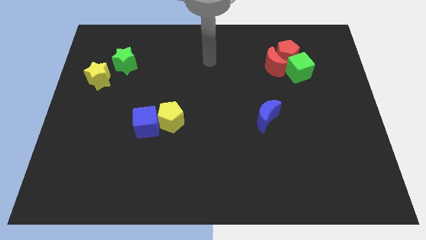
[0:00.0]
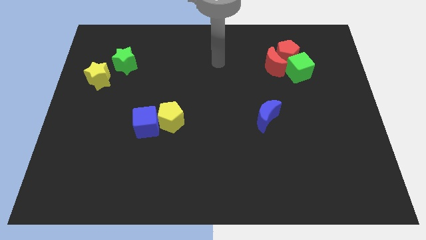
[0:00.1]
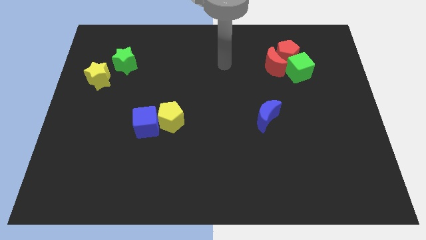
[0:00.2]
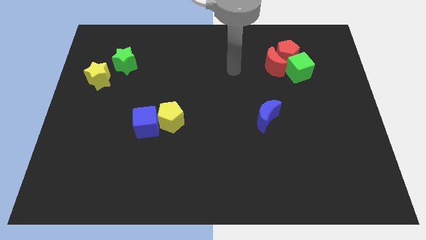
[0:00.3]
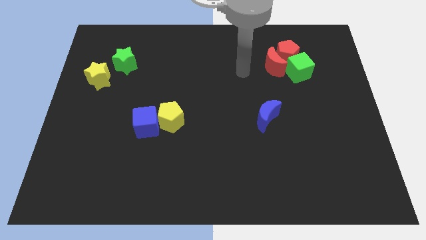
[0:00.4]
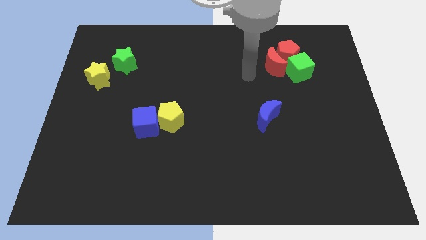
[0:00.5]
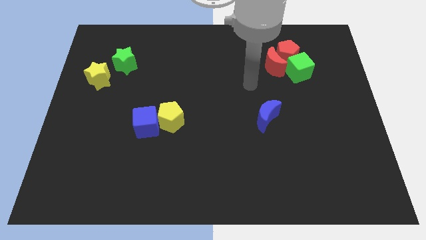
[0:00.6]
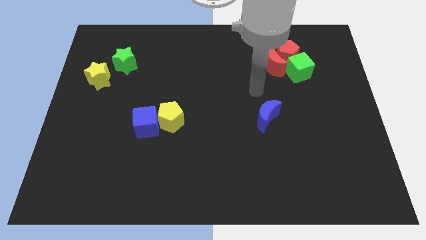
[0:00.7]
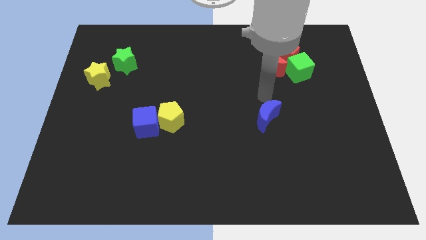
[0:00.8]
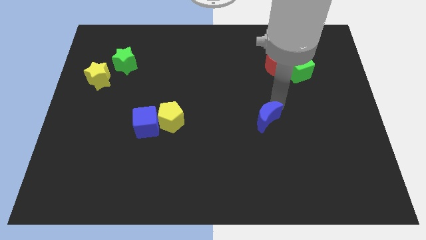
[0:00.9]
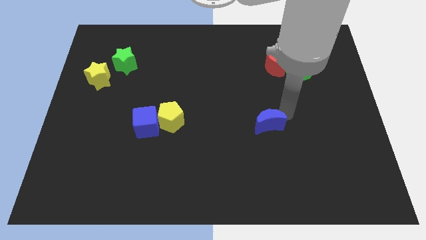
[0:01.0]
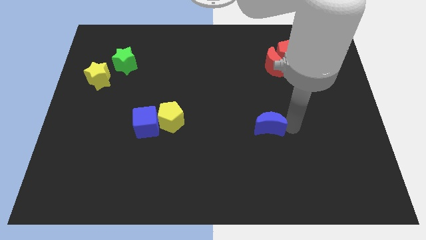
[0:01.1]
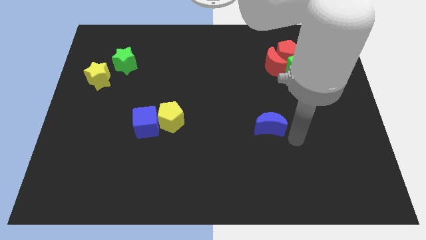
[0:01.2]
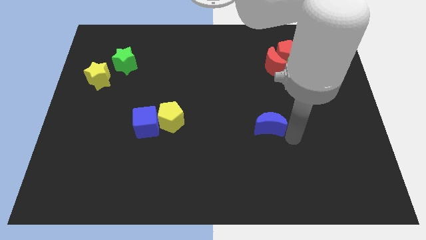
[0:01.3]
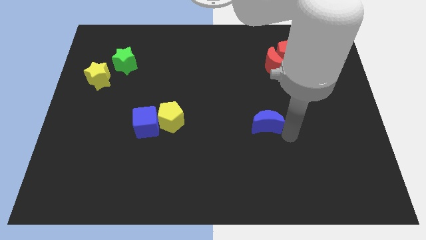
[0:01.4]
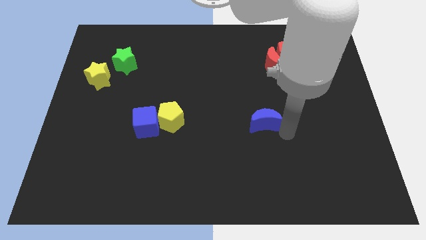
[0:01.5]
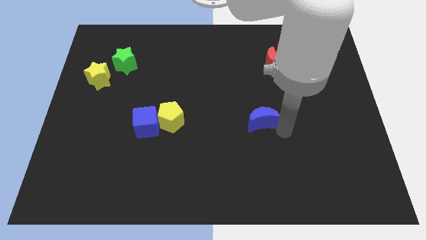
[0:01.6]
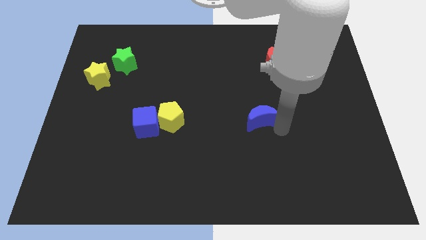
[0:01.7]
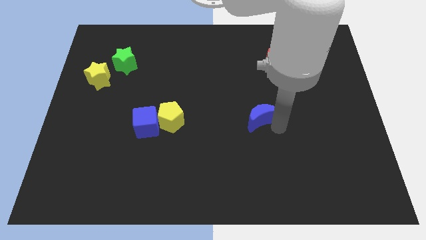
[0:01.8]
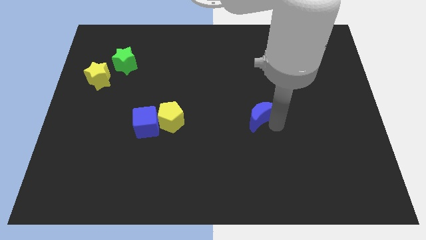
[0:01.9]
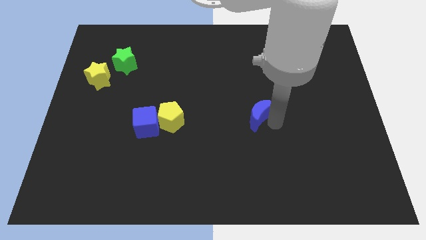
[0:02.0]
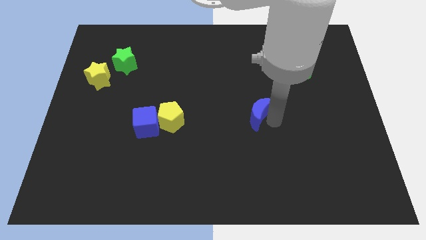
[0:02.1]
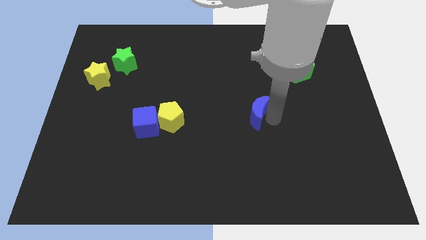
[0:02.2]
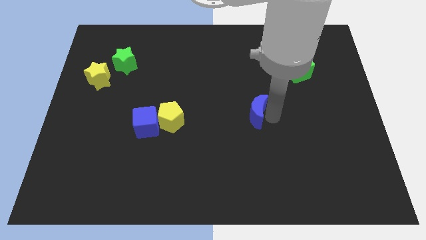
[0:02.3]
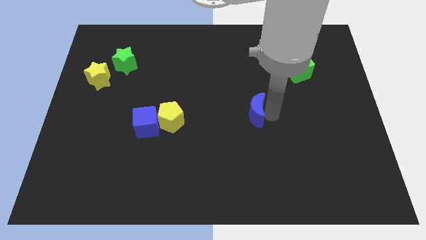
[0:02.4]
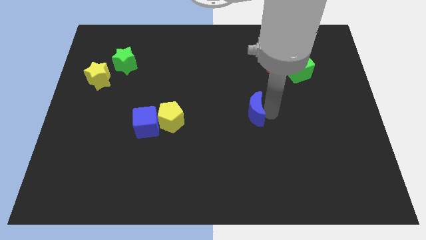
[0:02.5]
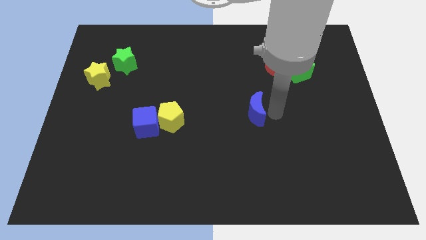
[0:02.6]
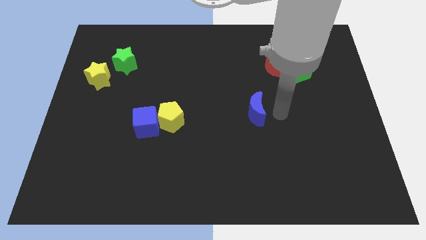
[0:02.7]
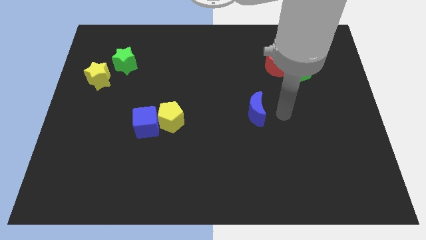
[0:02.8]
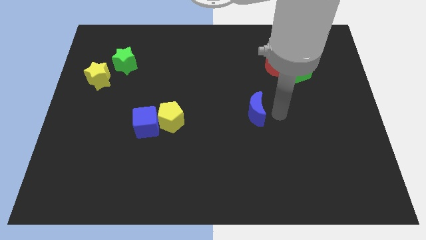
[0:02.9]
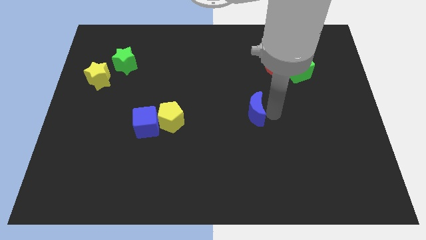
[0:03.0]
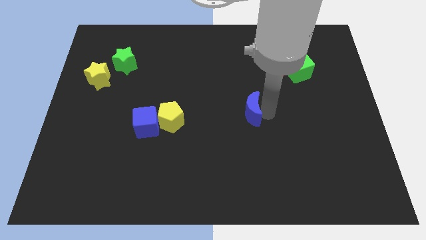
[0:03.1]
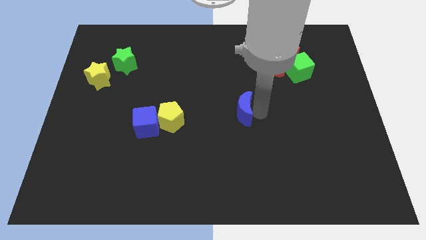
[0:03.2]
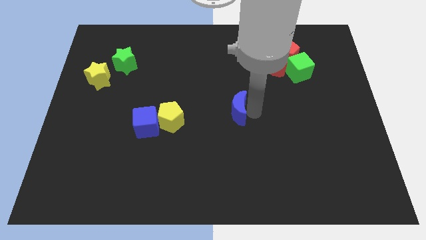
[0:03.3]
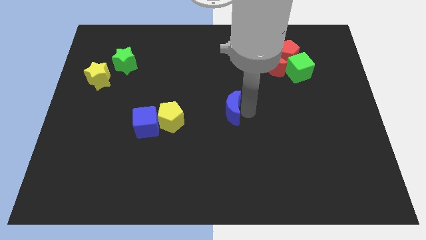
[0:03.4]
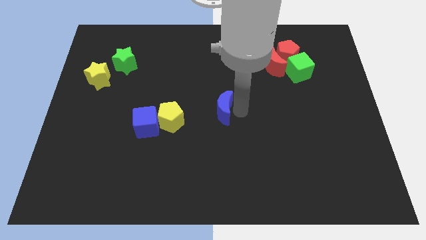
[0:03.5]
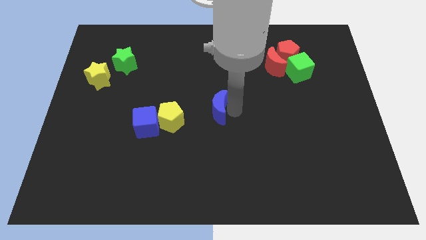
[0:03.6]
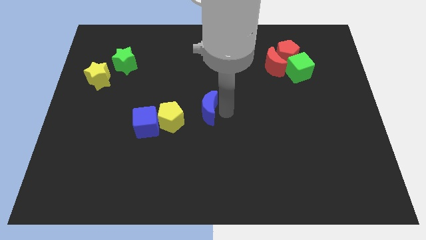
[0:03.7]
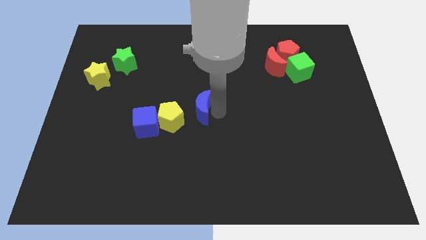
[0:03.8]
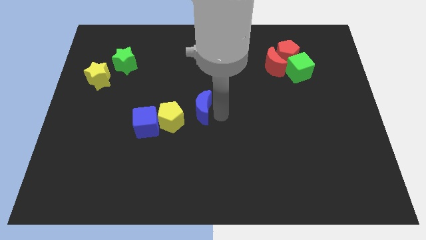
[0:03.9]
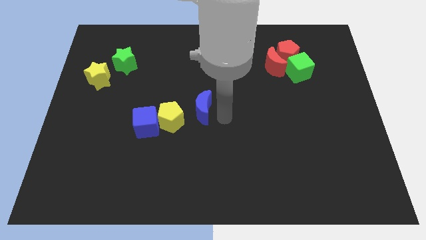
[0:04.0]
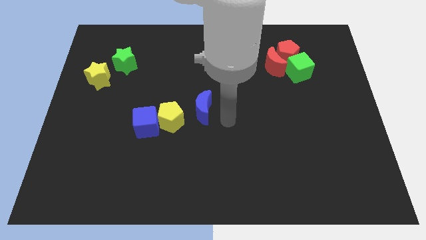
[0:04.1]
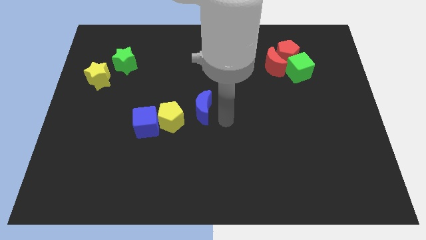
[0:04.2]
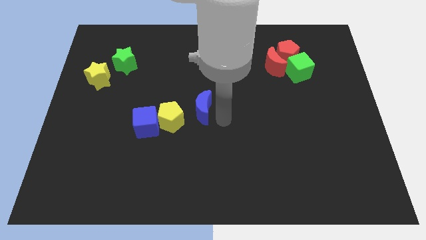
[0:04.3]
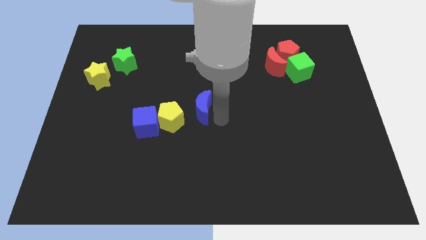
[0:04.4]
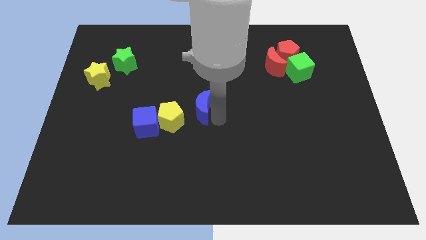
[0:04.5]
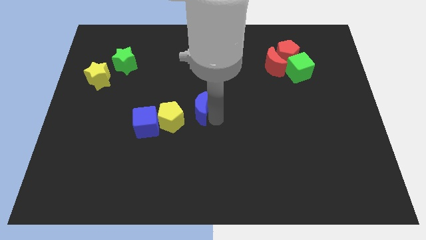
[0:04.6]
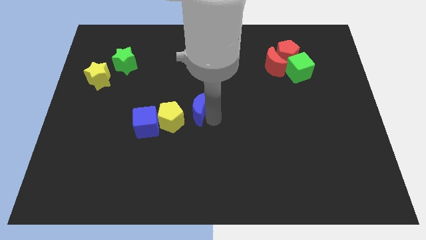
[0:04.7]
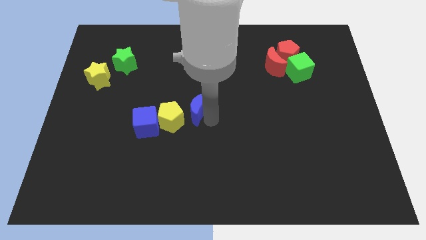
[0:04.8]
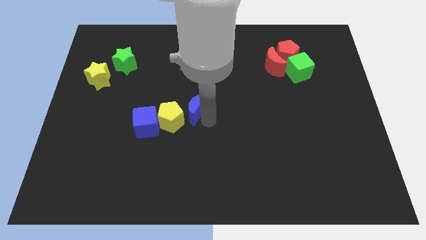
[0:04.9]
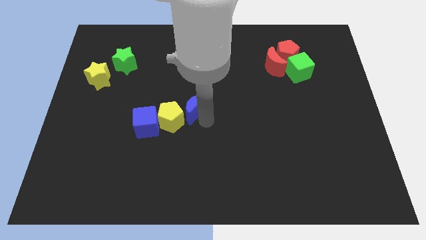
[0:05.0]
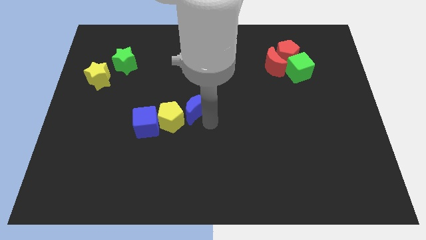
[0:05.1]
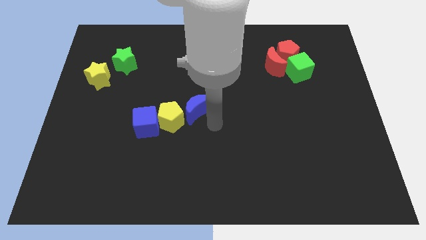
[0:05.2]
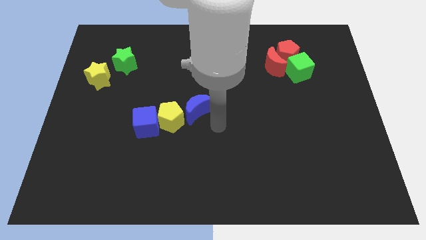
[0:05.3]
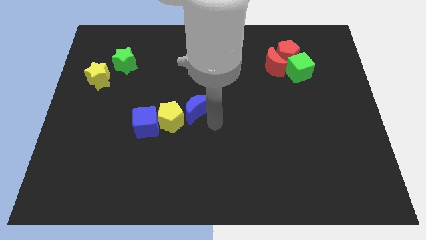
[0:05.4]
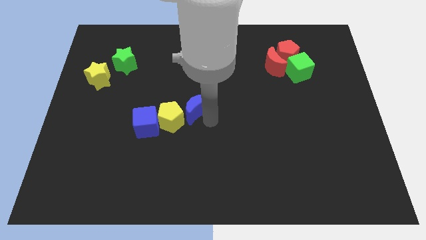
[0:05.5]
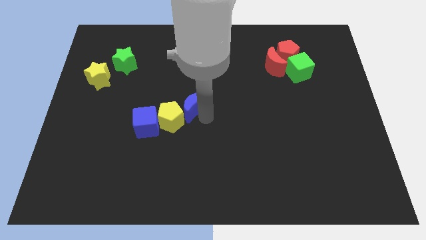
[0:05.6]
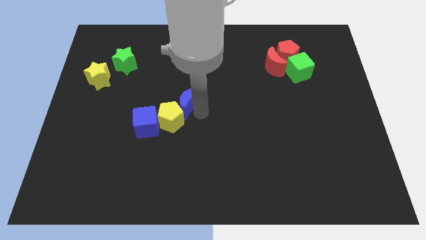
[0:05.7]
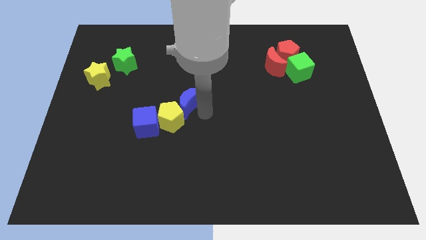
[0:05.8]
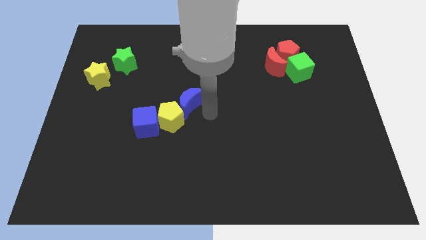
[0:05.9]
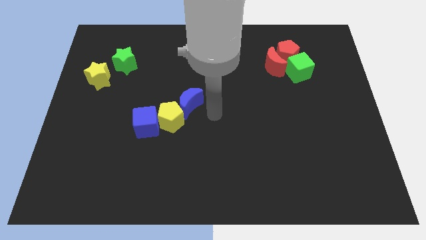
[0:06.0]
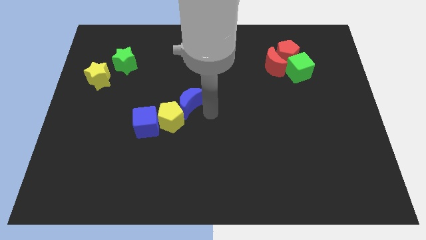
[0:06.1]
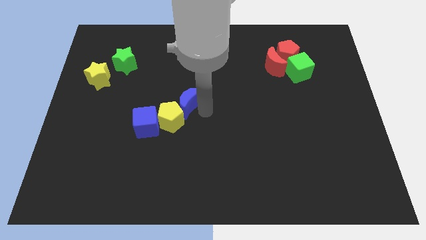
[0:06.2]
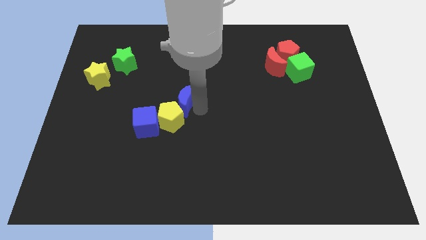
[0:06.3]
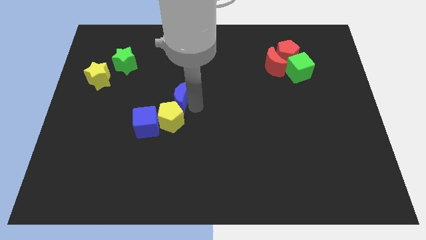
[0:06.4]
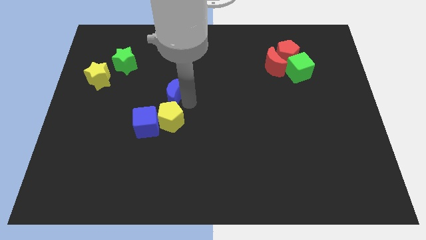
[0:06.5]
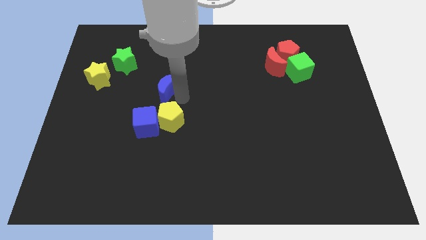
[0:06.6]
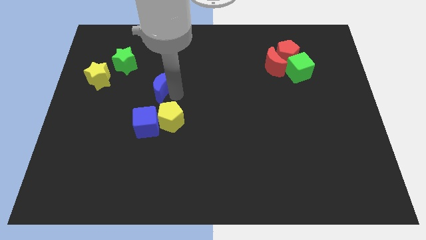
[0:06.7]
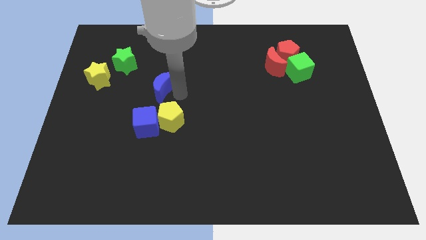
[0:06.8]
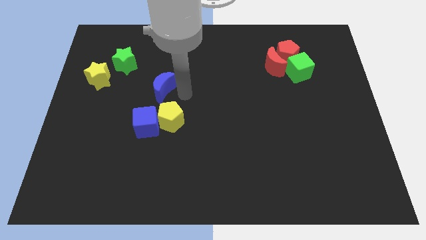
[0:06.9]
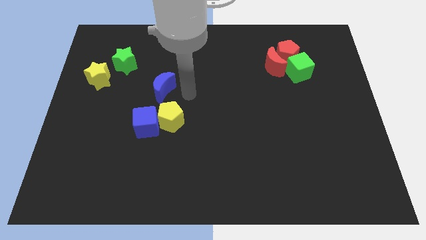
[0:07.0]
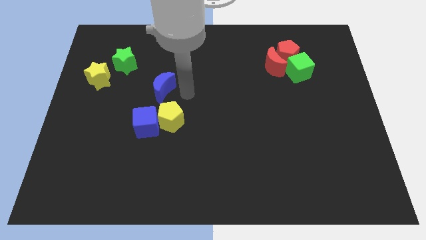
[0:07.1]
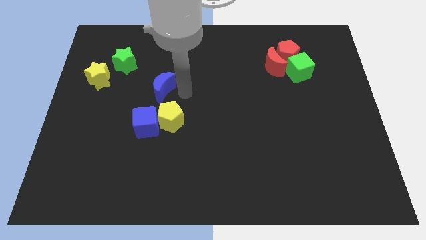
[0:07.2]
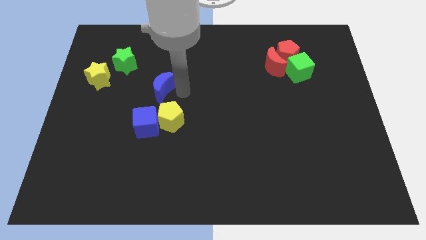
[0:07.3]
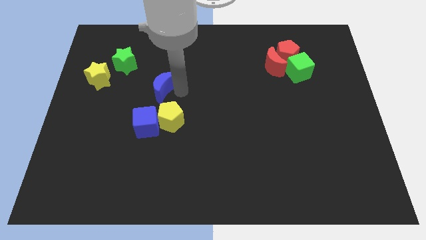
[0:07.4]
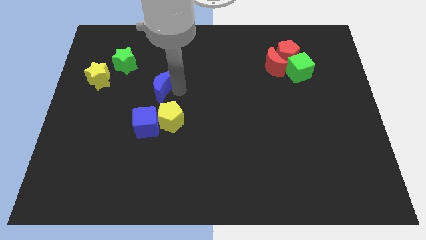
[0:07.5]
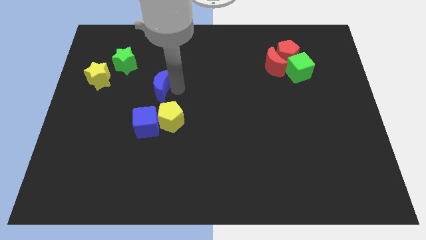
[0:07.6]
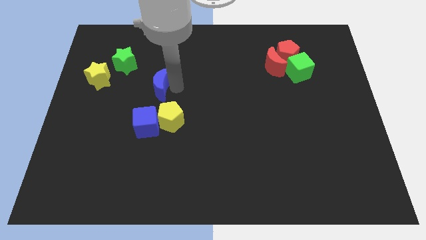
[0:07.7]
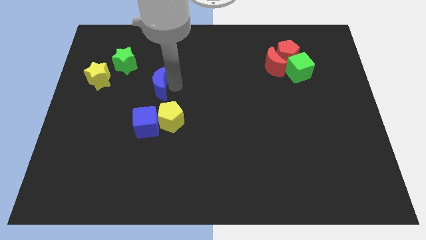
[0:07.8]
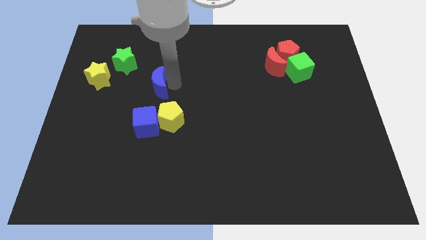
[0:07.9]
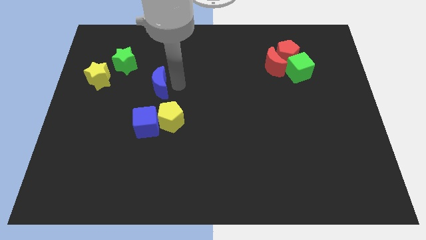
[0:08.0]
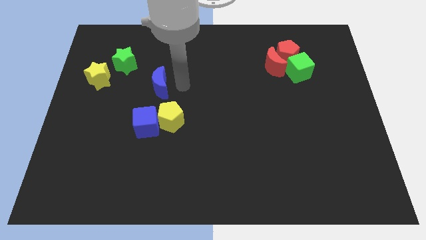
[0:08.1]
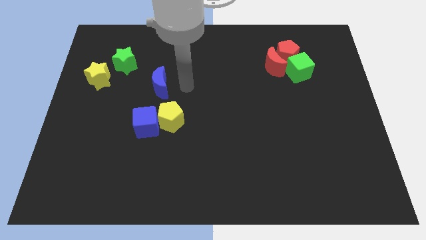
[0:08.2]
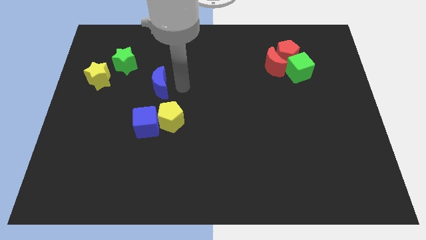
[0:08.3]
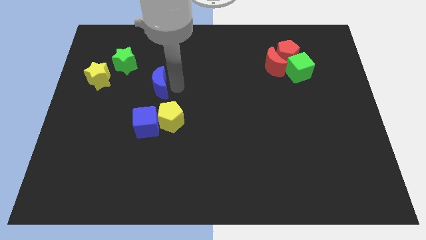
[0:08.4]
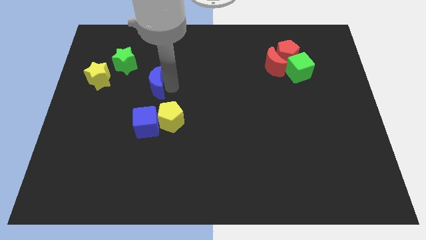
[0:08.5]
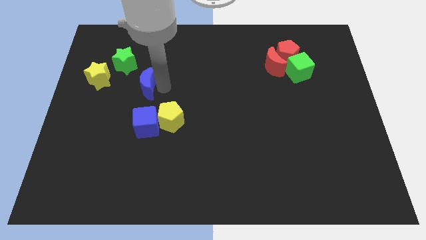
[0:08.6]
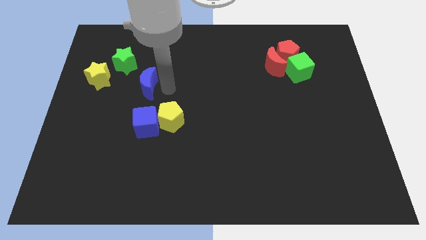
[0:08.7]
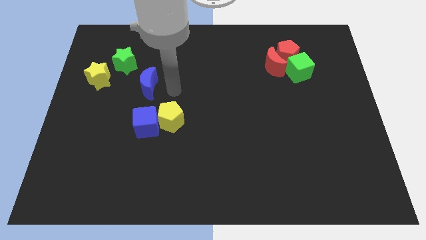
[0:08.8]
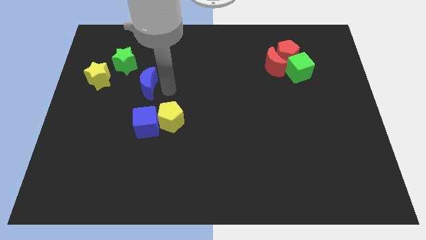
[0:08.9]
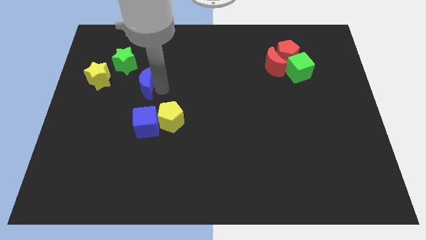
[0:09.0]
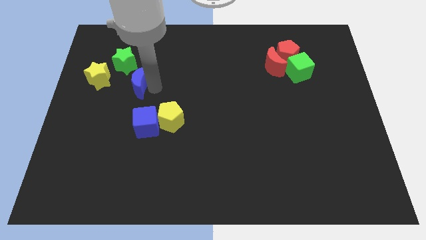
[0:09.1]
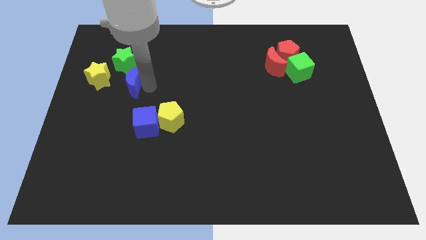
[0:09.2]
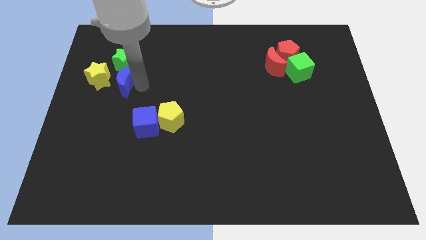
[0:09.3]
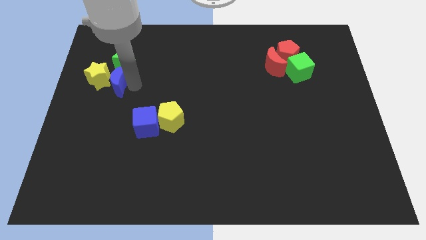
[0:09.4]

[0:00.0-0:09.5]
move the blue moon towards the yellow star
